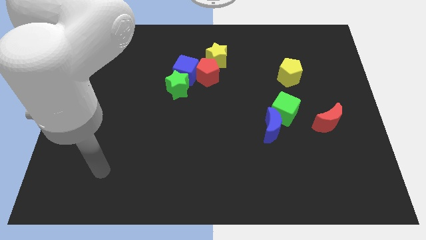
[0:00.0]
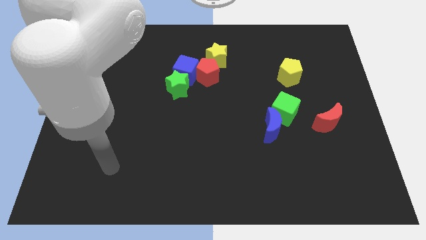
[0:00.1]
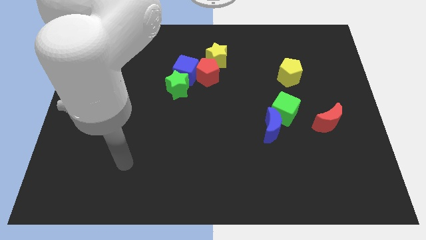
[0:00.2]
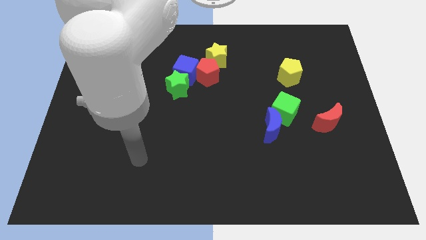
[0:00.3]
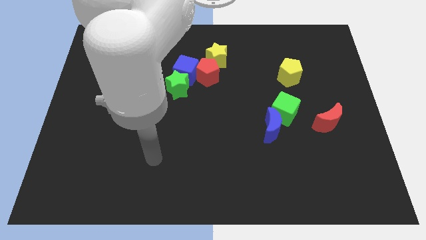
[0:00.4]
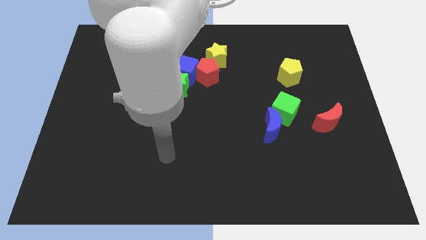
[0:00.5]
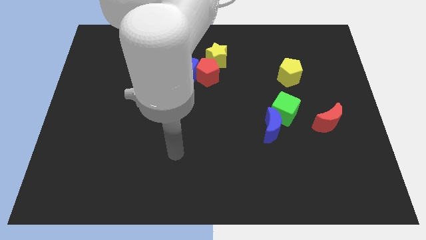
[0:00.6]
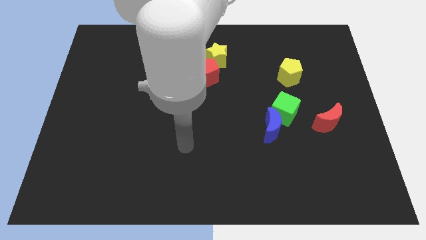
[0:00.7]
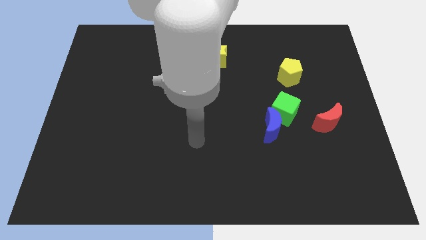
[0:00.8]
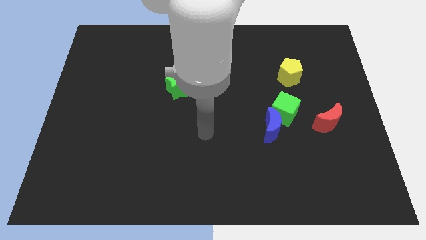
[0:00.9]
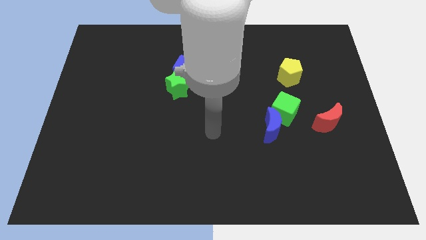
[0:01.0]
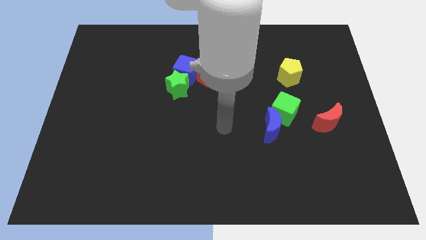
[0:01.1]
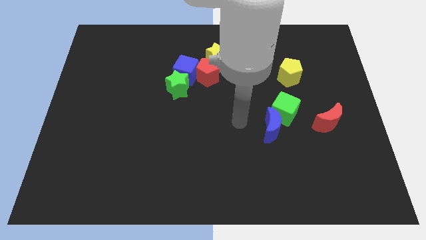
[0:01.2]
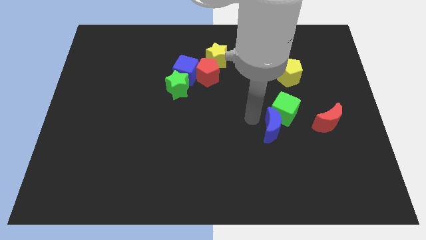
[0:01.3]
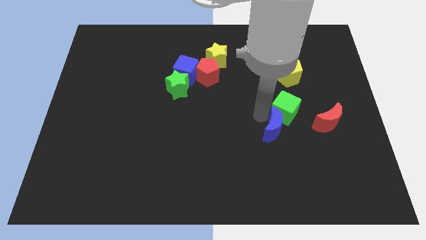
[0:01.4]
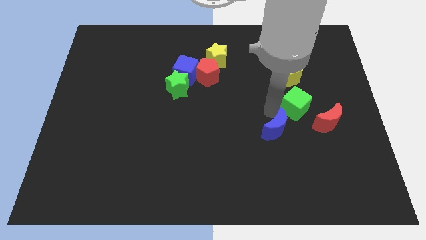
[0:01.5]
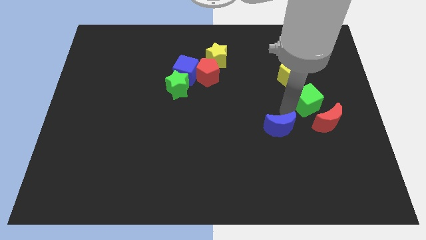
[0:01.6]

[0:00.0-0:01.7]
pull the blue moon apart from the green cube

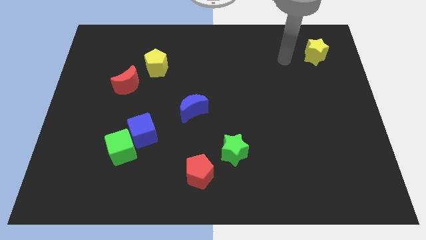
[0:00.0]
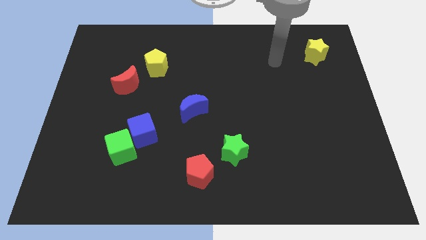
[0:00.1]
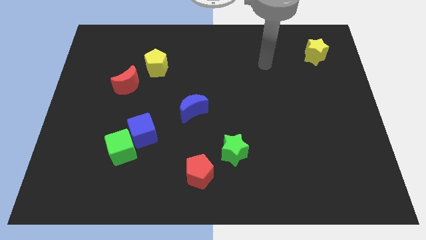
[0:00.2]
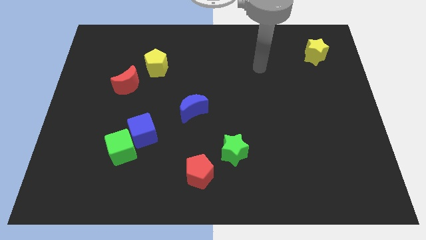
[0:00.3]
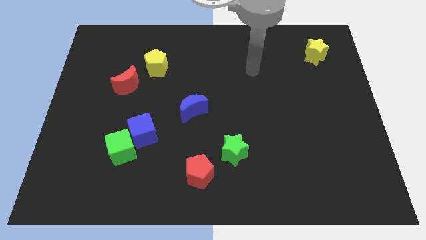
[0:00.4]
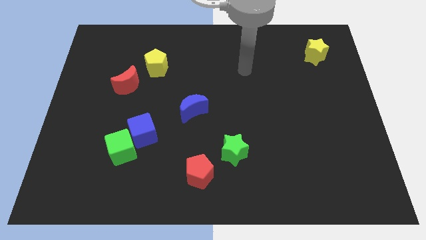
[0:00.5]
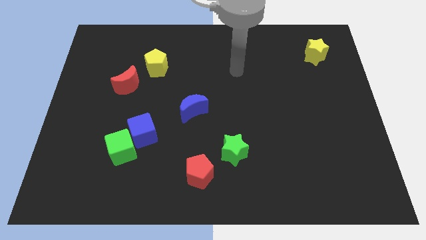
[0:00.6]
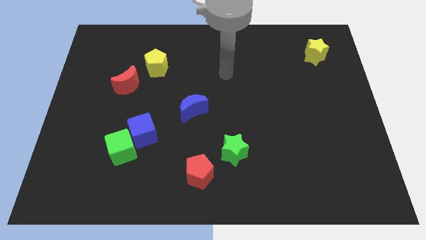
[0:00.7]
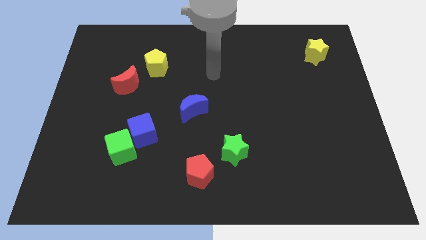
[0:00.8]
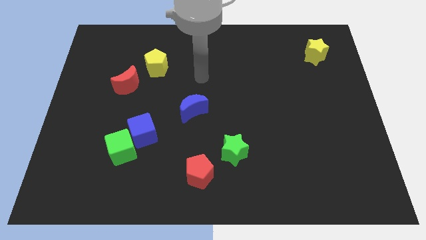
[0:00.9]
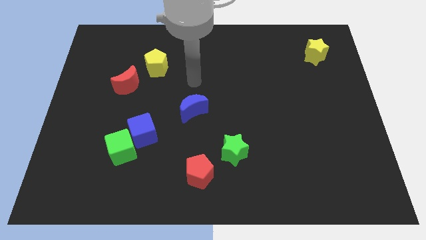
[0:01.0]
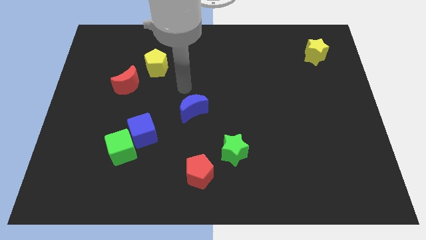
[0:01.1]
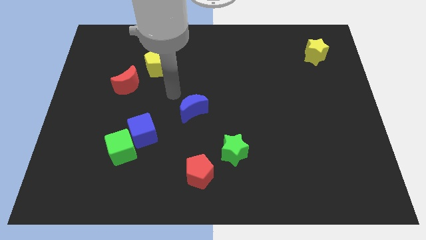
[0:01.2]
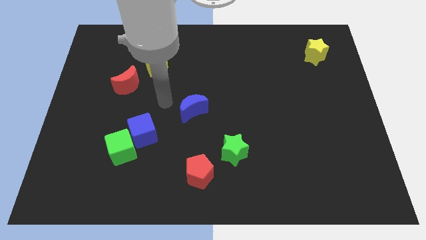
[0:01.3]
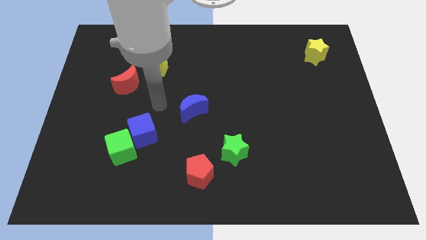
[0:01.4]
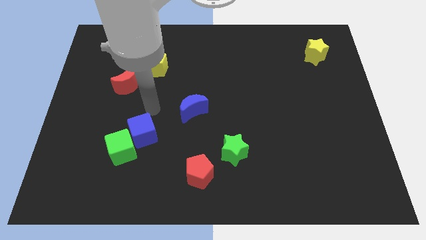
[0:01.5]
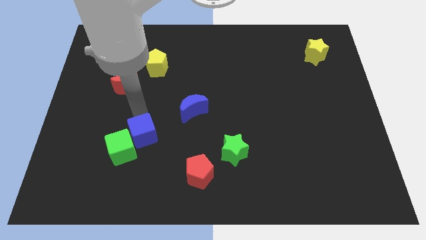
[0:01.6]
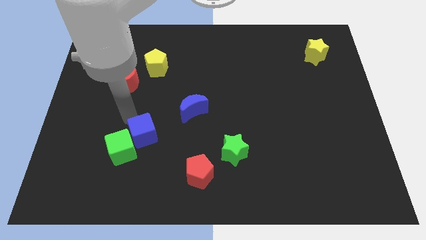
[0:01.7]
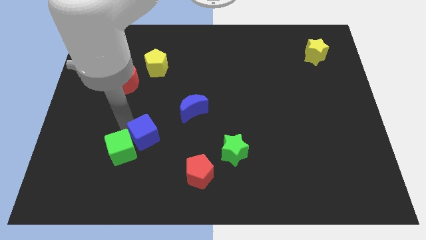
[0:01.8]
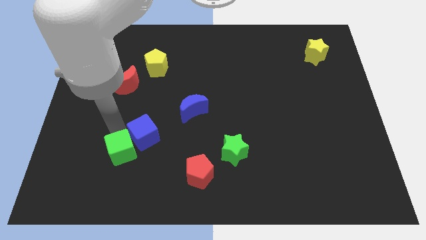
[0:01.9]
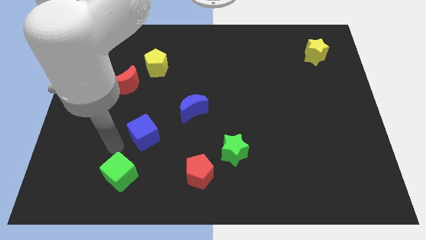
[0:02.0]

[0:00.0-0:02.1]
move the blue cube away from the green cube

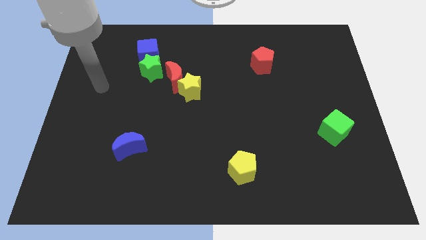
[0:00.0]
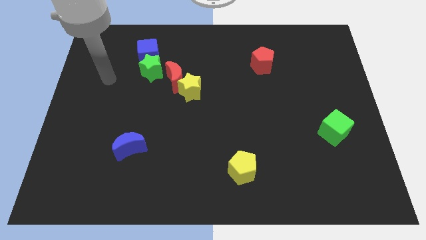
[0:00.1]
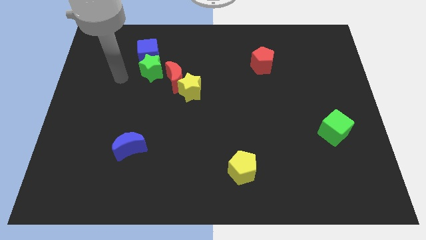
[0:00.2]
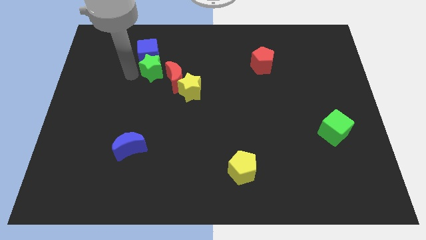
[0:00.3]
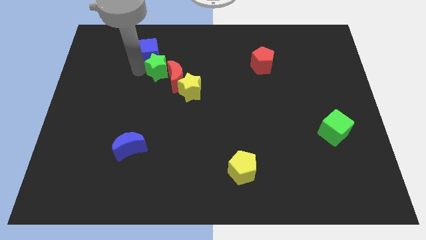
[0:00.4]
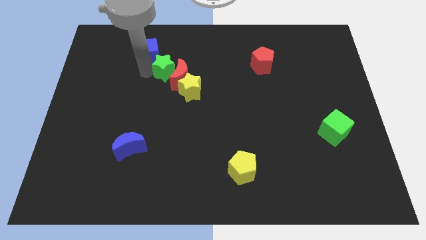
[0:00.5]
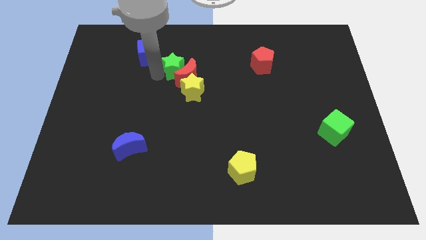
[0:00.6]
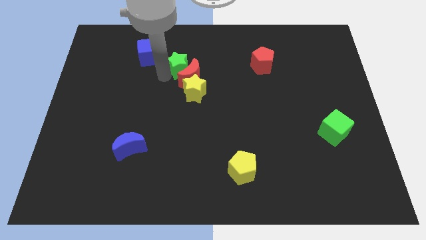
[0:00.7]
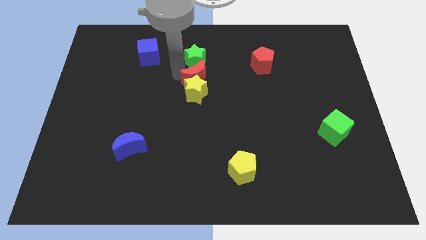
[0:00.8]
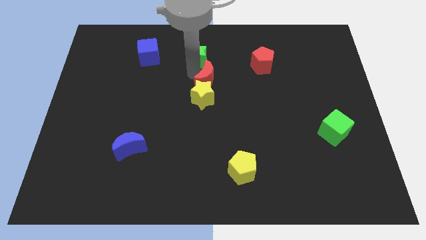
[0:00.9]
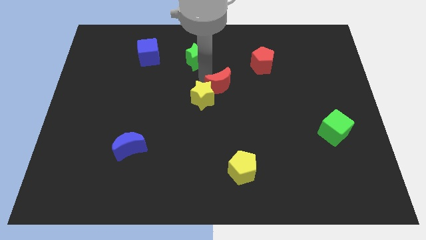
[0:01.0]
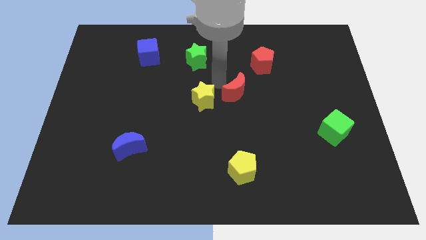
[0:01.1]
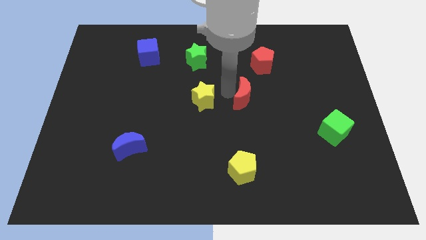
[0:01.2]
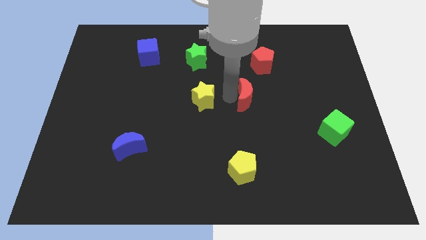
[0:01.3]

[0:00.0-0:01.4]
move the yellow star away from the red moon

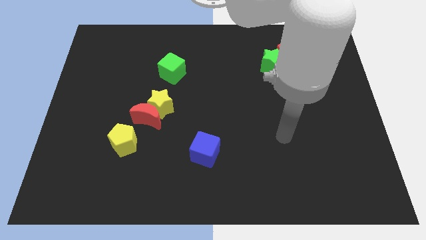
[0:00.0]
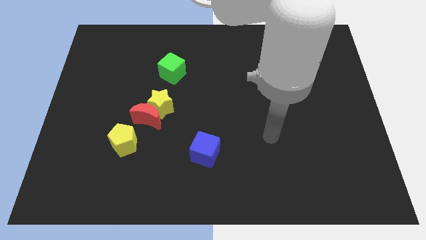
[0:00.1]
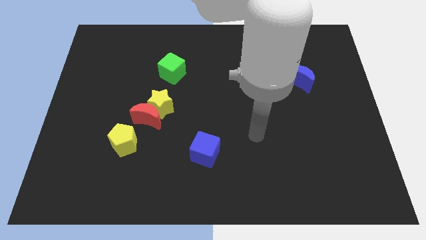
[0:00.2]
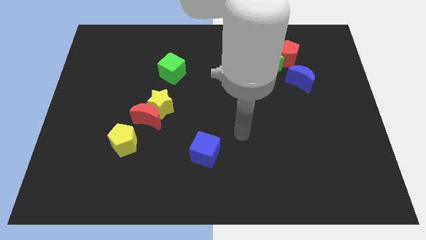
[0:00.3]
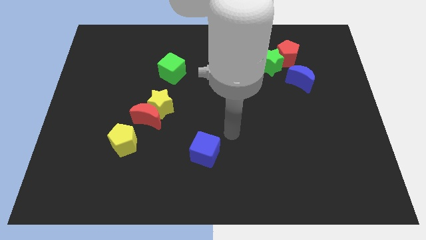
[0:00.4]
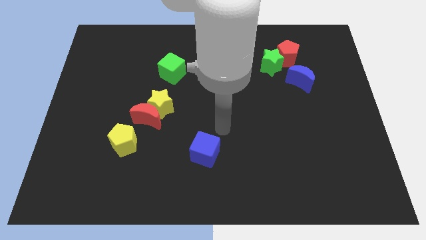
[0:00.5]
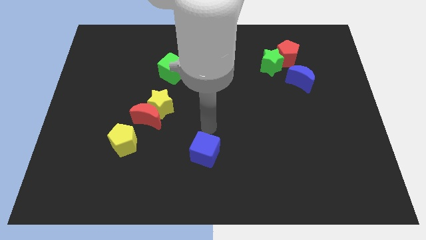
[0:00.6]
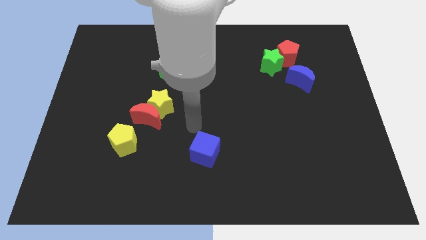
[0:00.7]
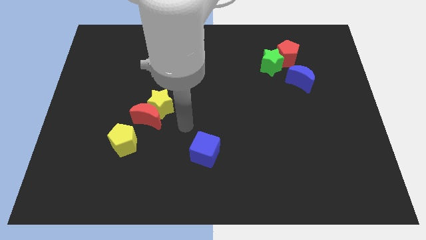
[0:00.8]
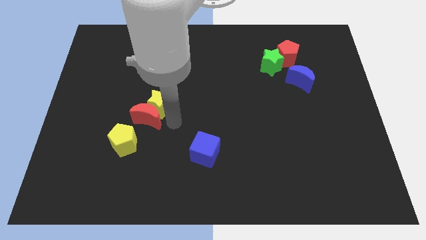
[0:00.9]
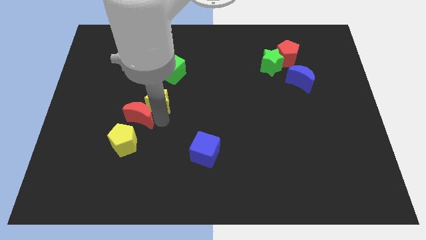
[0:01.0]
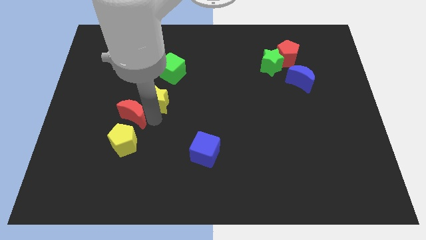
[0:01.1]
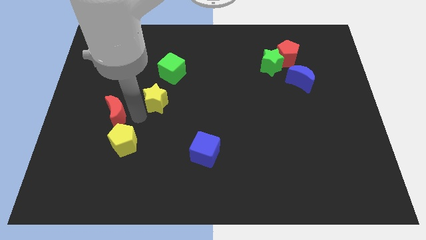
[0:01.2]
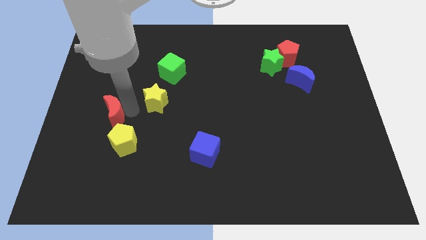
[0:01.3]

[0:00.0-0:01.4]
pull the yellow star apart from the red moon

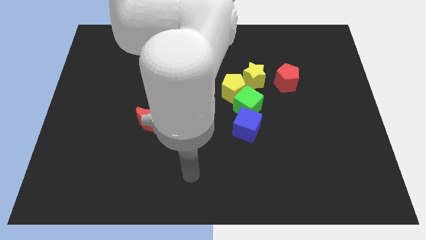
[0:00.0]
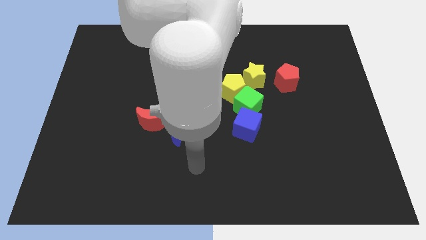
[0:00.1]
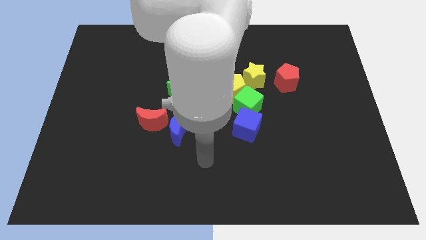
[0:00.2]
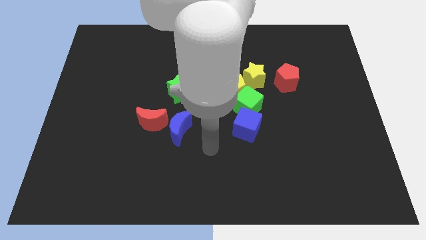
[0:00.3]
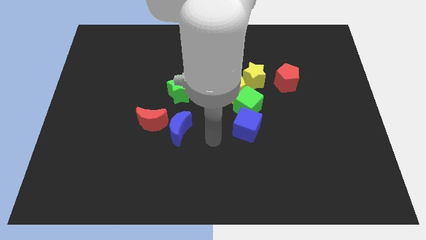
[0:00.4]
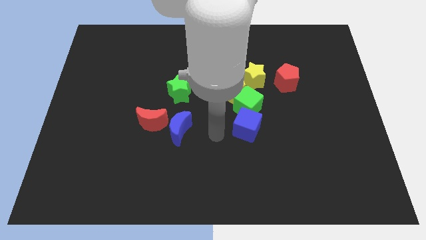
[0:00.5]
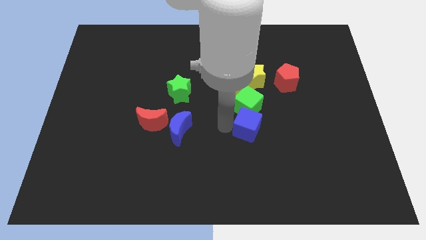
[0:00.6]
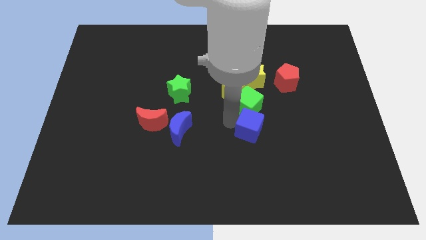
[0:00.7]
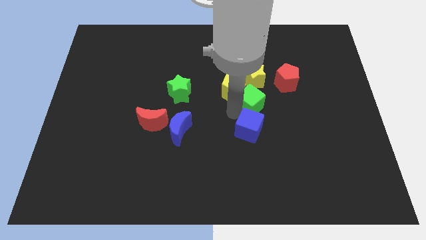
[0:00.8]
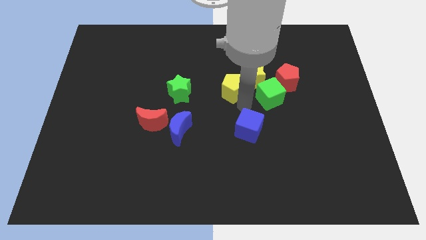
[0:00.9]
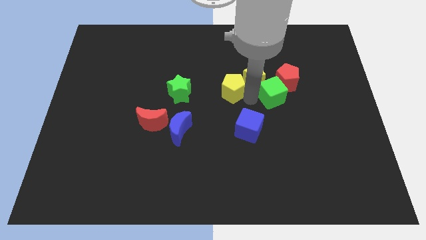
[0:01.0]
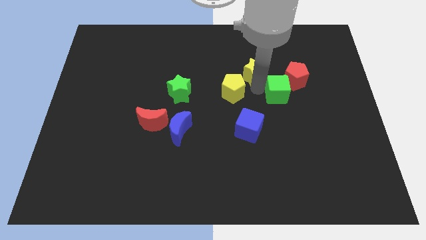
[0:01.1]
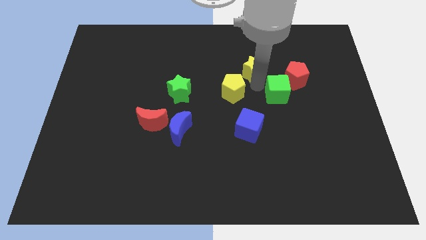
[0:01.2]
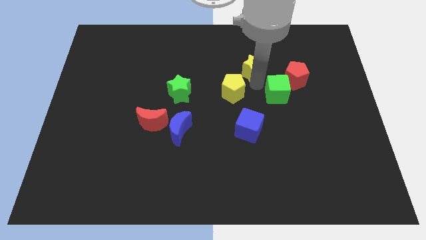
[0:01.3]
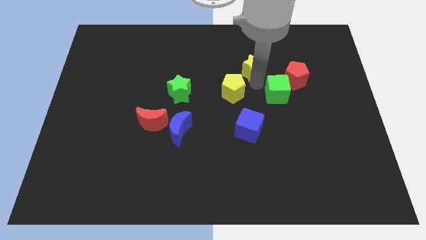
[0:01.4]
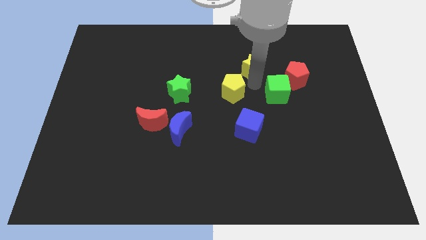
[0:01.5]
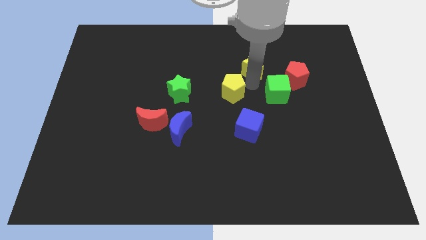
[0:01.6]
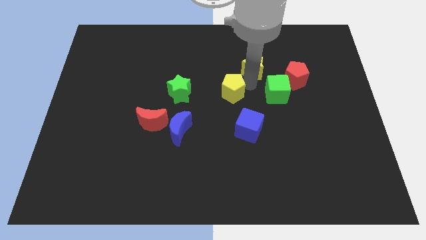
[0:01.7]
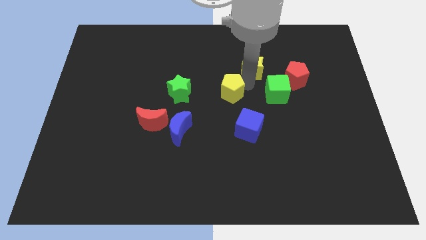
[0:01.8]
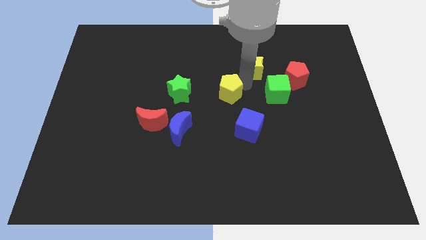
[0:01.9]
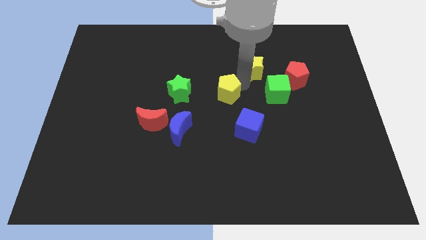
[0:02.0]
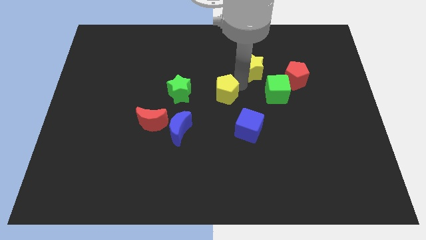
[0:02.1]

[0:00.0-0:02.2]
move the yellow pentagon away from the green cube and yellow star

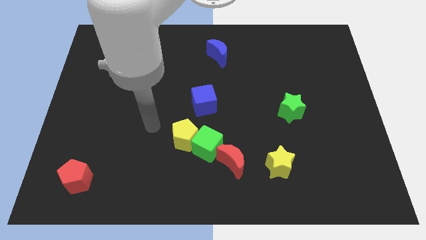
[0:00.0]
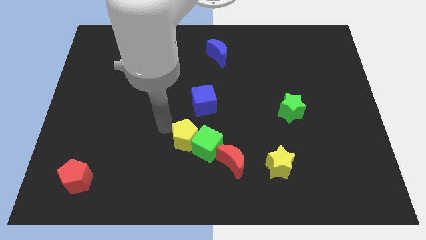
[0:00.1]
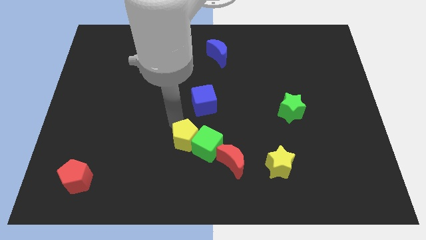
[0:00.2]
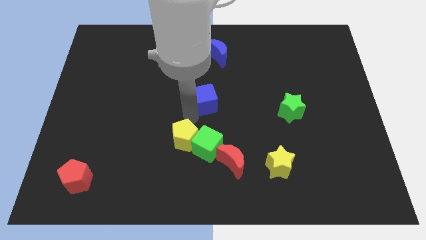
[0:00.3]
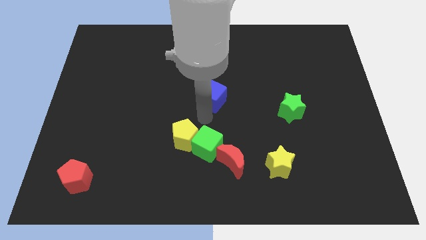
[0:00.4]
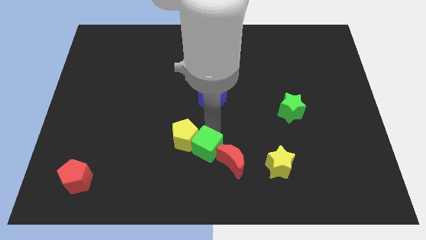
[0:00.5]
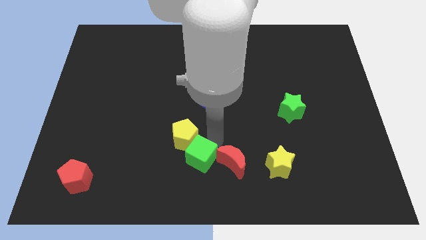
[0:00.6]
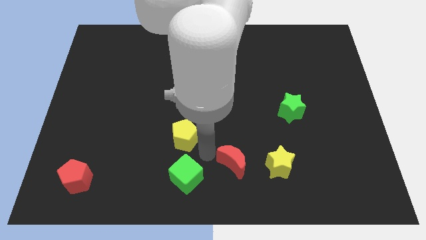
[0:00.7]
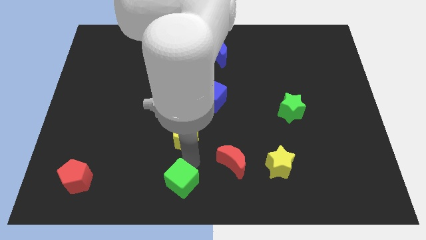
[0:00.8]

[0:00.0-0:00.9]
pull the yellow pentagon apart from the green cube
